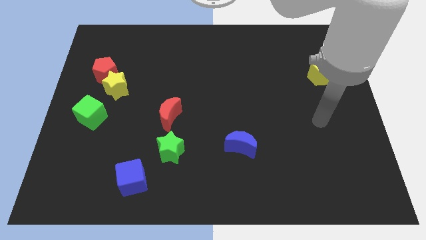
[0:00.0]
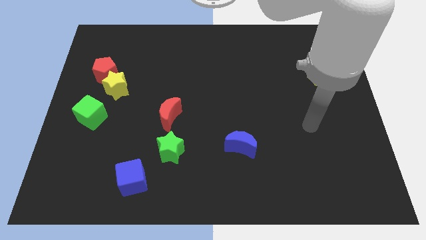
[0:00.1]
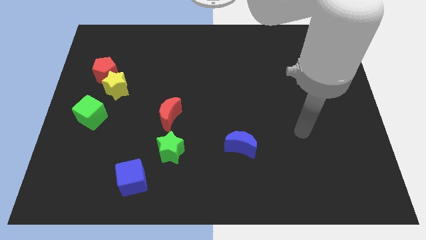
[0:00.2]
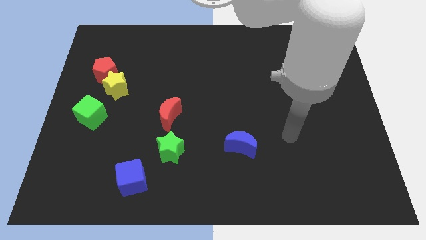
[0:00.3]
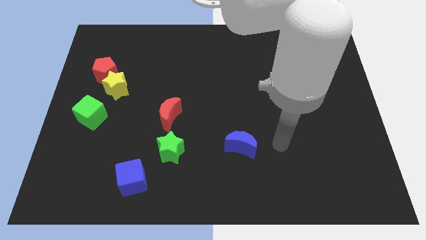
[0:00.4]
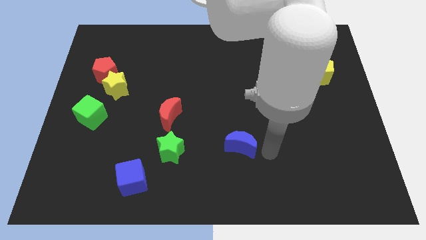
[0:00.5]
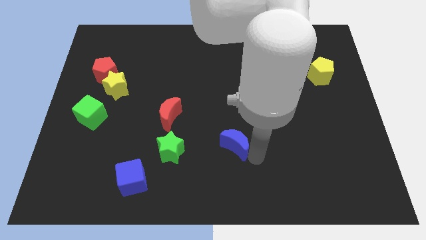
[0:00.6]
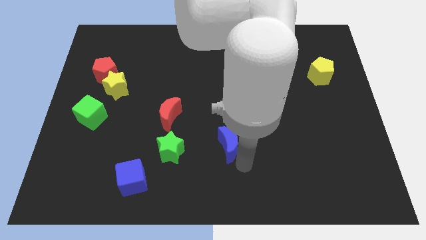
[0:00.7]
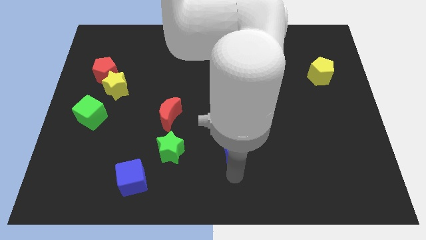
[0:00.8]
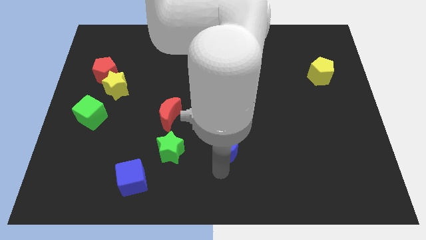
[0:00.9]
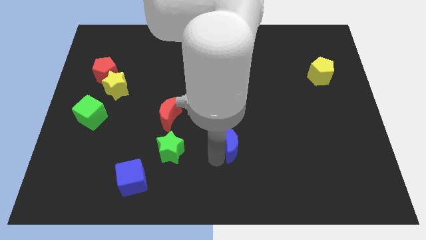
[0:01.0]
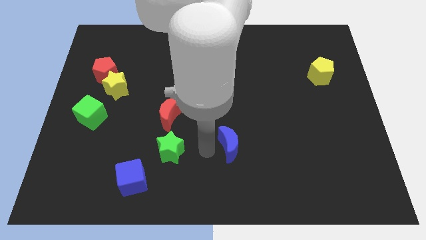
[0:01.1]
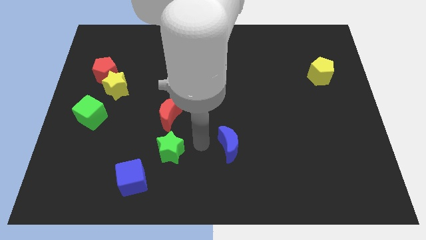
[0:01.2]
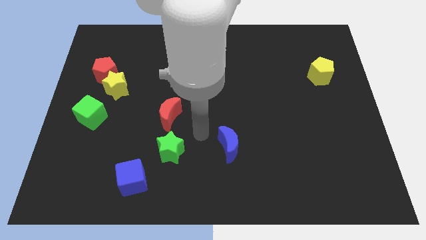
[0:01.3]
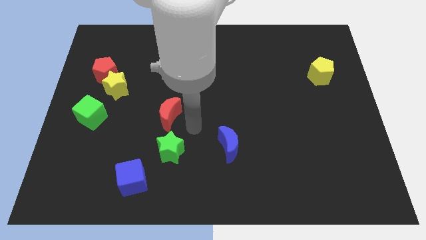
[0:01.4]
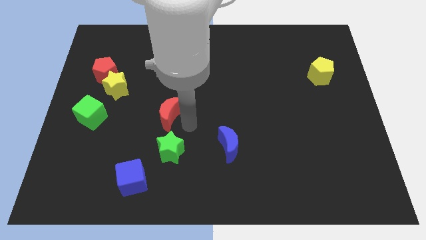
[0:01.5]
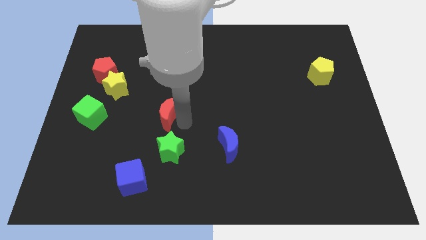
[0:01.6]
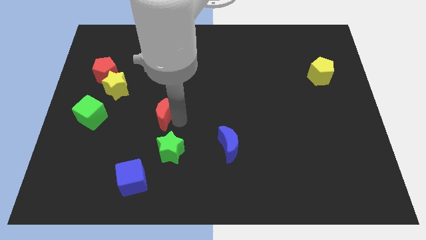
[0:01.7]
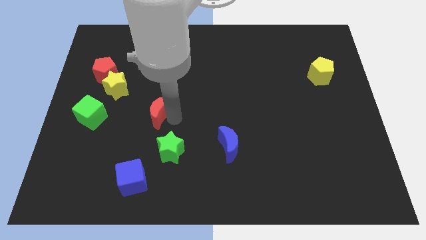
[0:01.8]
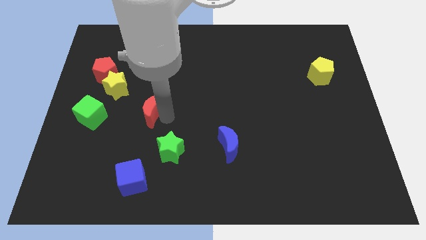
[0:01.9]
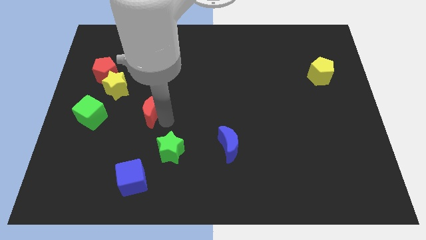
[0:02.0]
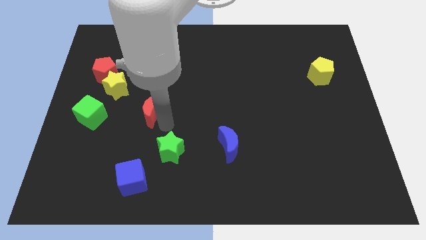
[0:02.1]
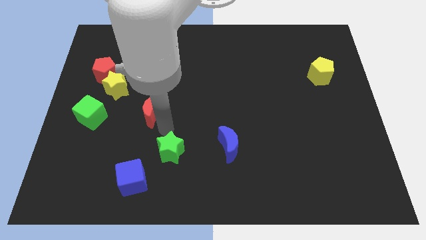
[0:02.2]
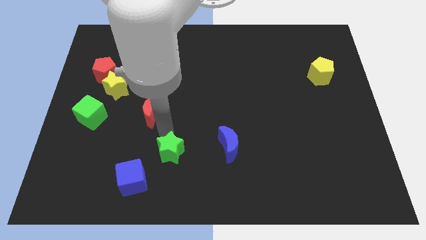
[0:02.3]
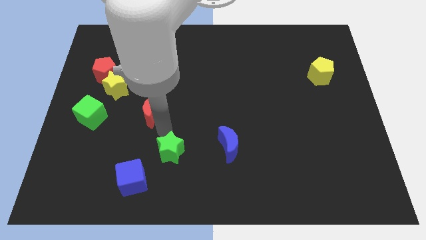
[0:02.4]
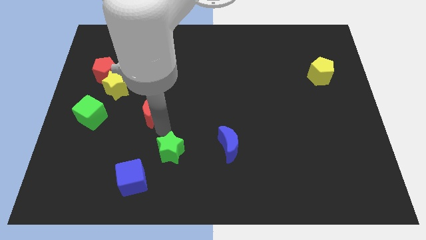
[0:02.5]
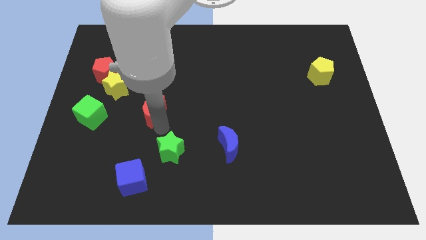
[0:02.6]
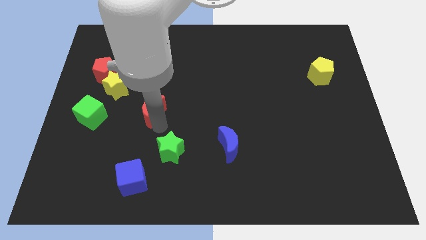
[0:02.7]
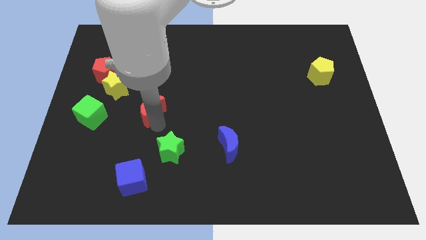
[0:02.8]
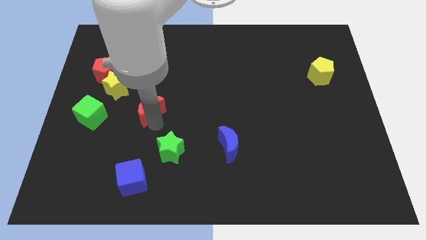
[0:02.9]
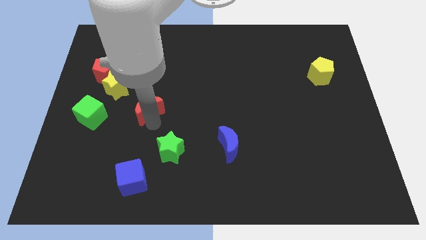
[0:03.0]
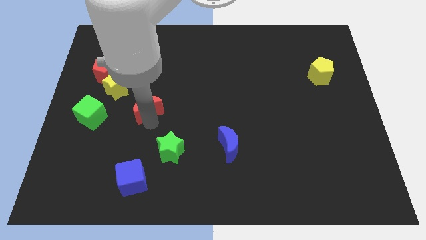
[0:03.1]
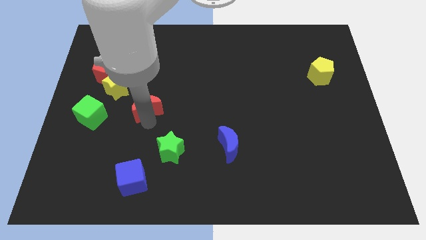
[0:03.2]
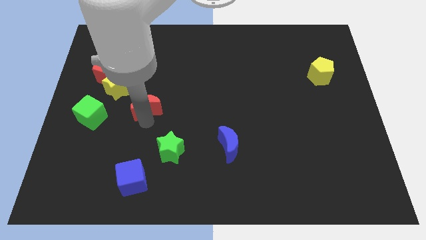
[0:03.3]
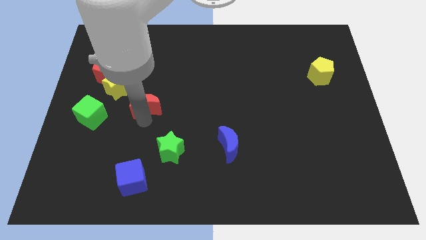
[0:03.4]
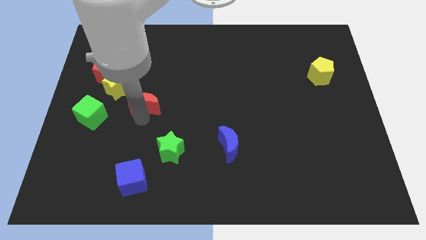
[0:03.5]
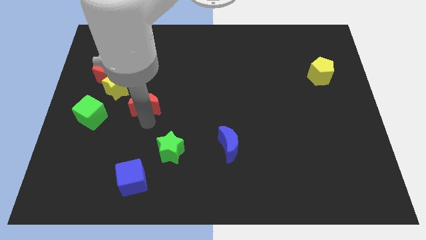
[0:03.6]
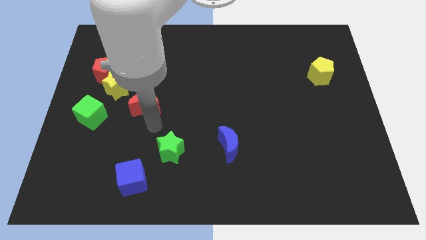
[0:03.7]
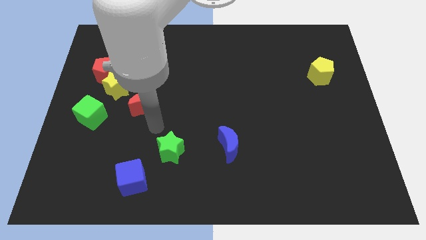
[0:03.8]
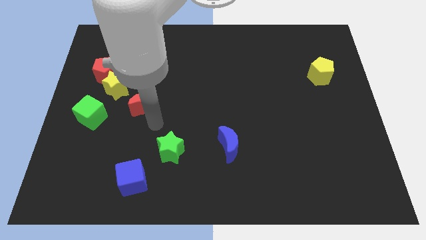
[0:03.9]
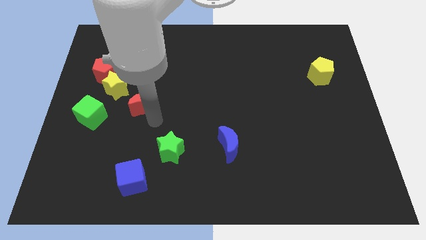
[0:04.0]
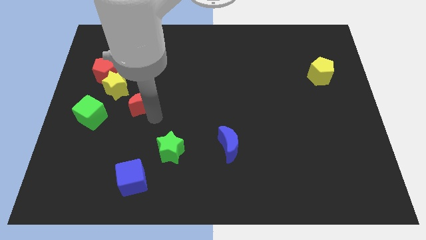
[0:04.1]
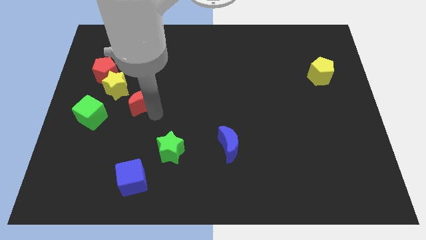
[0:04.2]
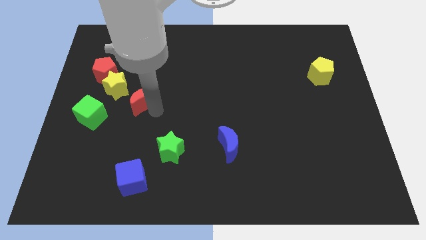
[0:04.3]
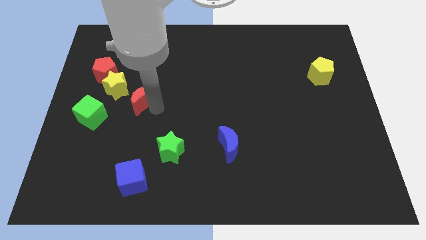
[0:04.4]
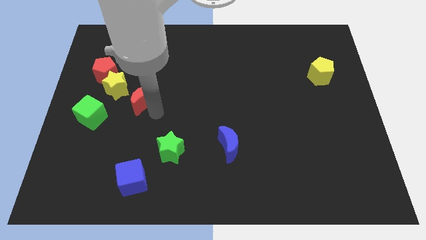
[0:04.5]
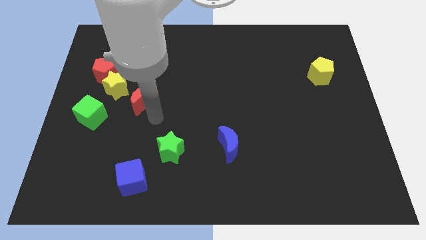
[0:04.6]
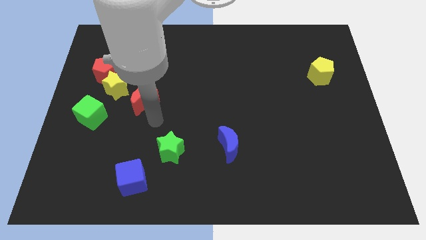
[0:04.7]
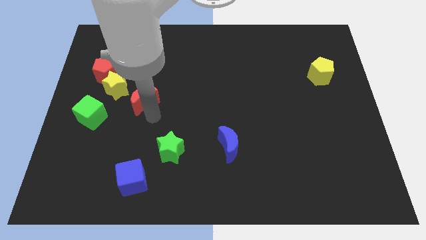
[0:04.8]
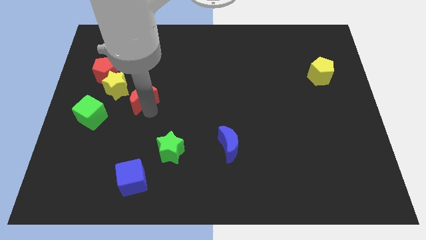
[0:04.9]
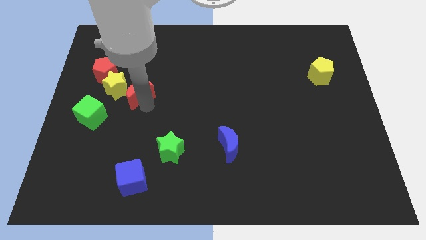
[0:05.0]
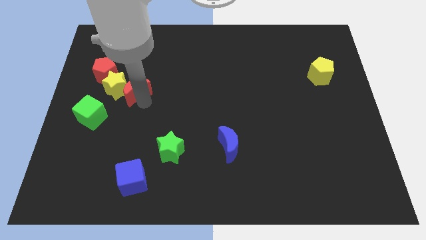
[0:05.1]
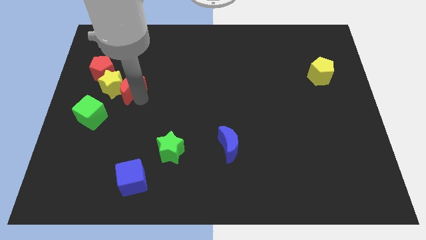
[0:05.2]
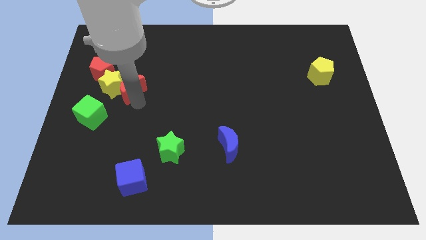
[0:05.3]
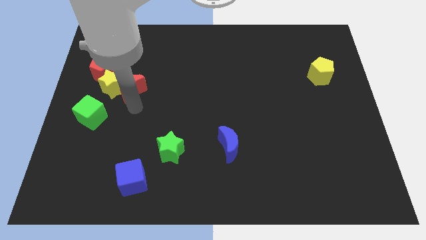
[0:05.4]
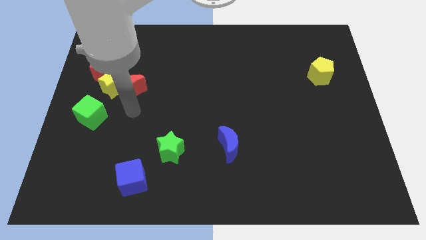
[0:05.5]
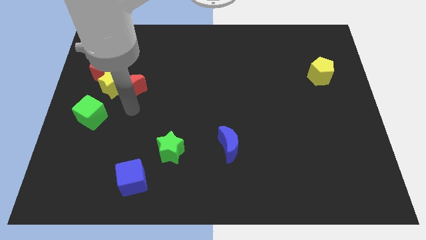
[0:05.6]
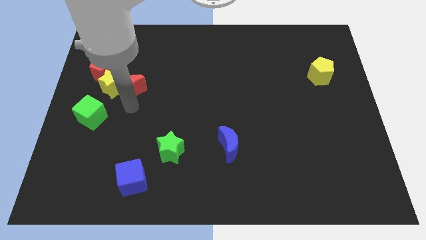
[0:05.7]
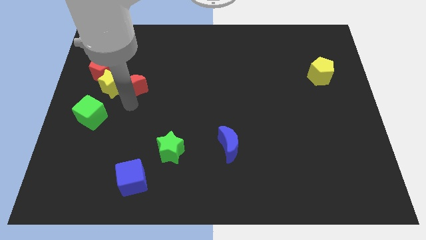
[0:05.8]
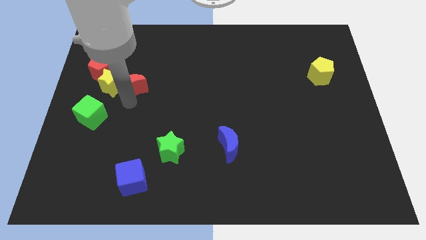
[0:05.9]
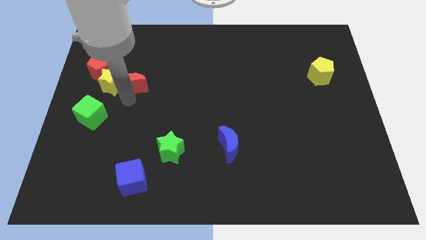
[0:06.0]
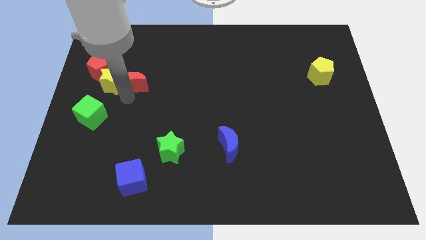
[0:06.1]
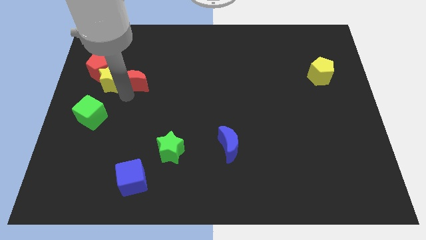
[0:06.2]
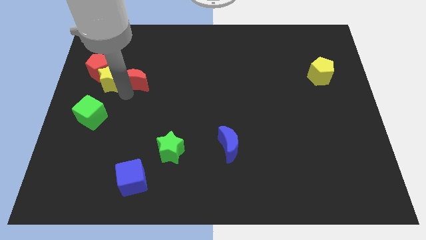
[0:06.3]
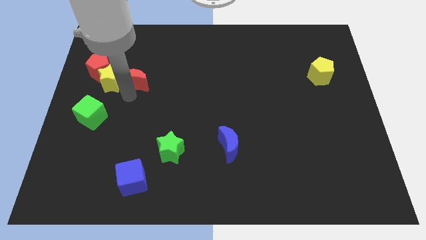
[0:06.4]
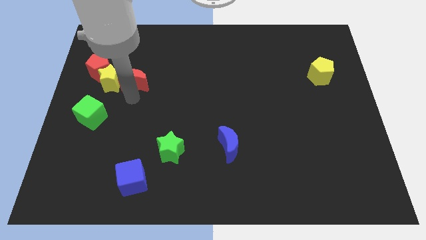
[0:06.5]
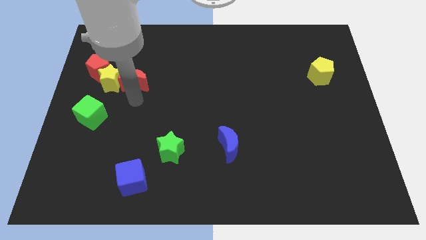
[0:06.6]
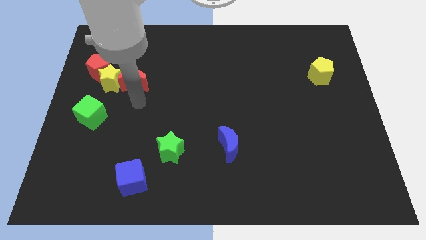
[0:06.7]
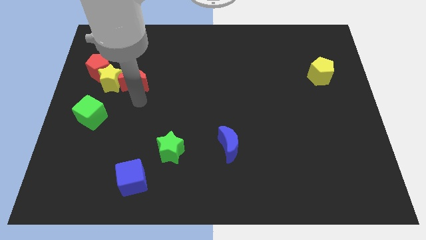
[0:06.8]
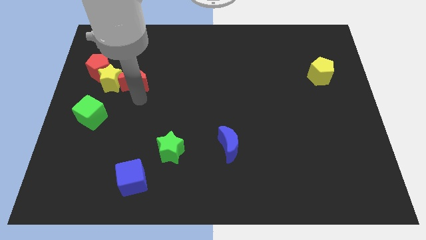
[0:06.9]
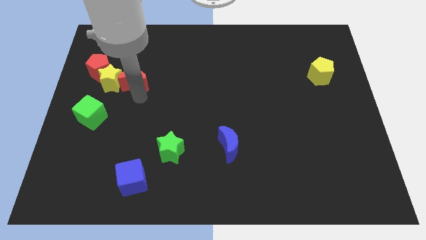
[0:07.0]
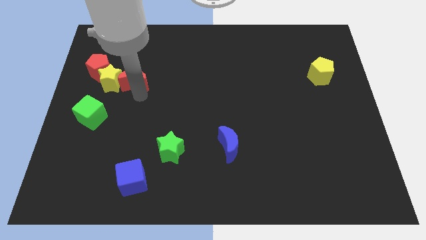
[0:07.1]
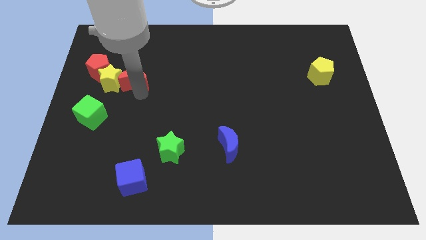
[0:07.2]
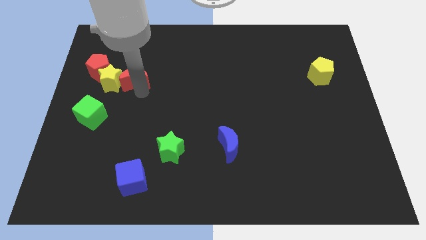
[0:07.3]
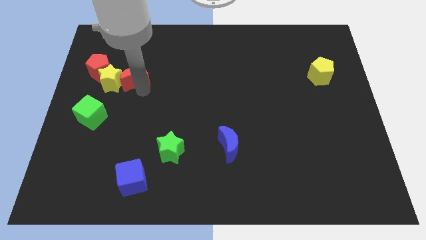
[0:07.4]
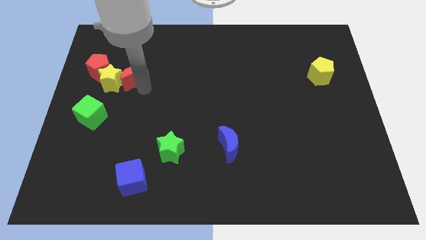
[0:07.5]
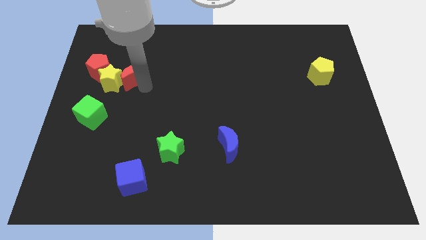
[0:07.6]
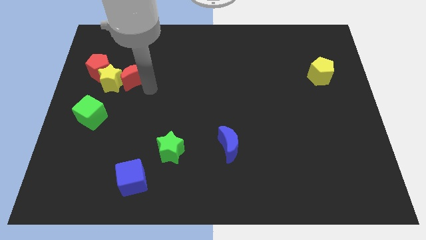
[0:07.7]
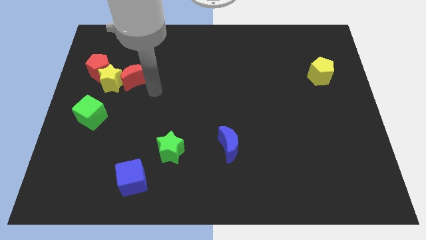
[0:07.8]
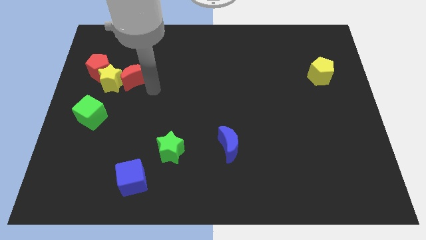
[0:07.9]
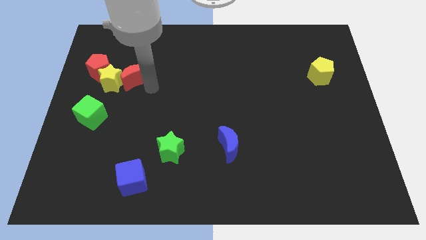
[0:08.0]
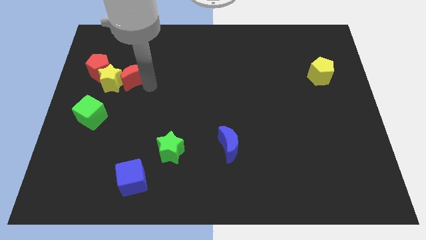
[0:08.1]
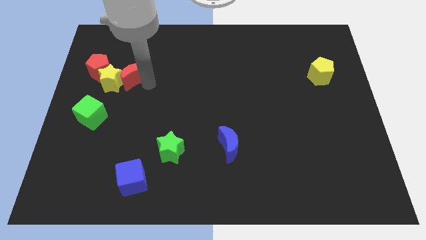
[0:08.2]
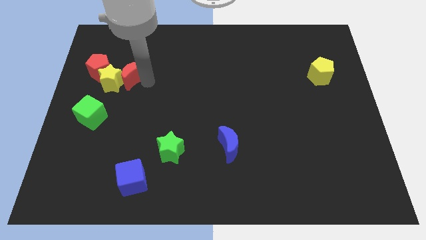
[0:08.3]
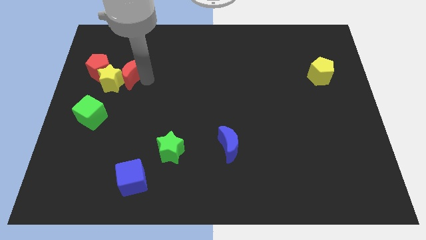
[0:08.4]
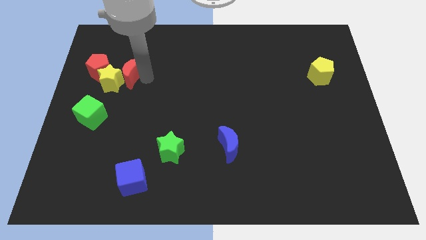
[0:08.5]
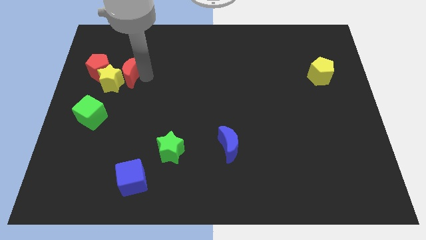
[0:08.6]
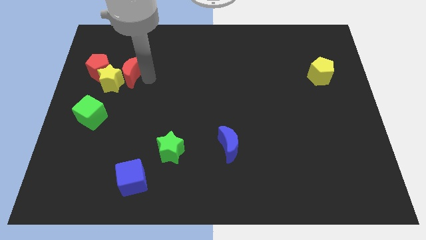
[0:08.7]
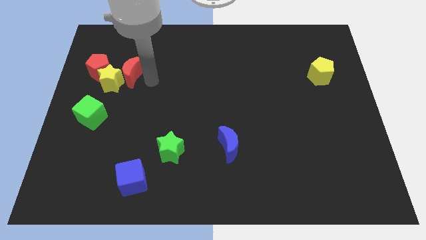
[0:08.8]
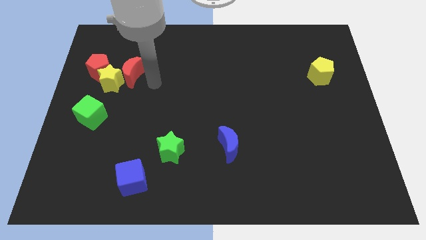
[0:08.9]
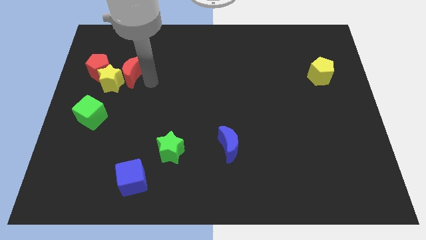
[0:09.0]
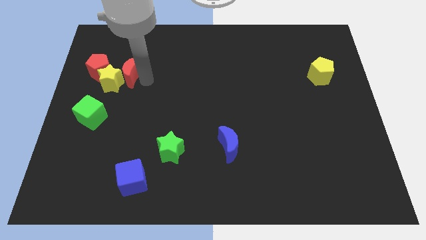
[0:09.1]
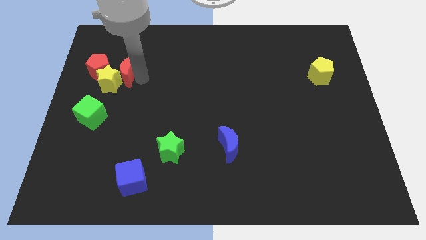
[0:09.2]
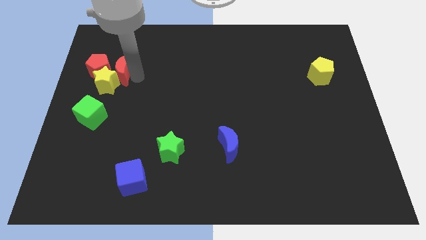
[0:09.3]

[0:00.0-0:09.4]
slide the red moon close to the red pentagon
